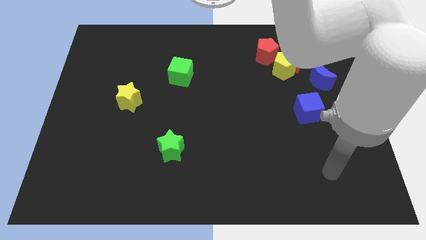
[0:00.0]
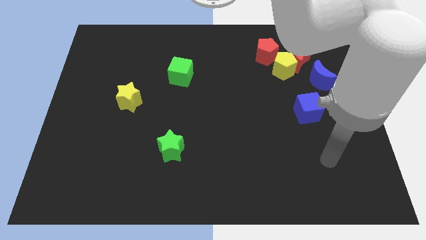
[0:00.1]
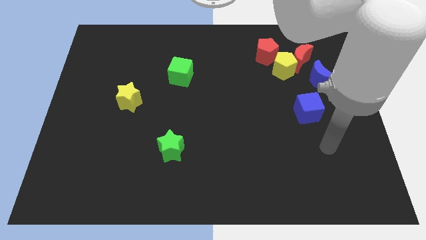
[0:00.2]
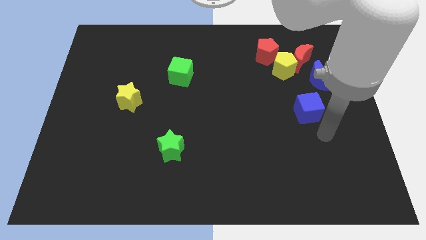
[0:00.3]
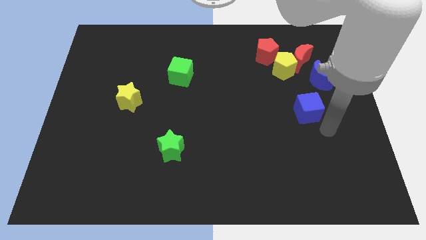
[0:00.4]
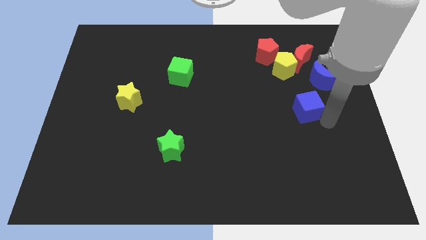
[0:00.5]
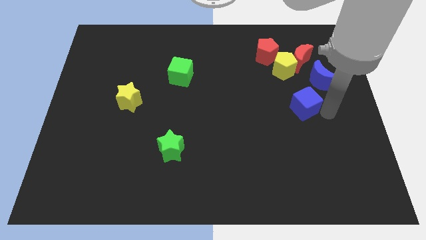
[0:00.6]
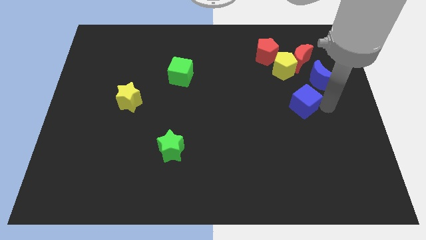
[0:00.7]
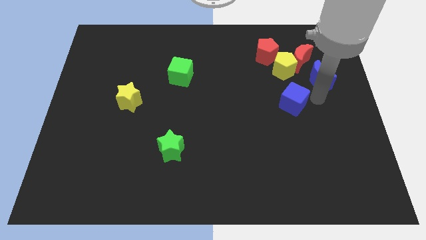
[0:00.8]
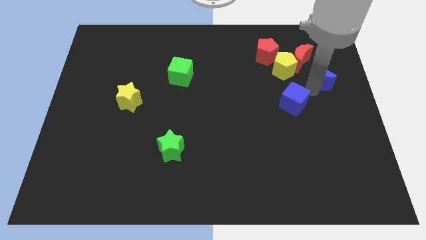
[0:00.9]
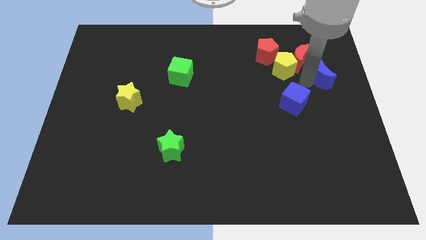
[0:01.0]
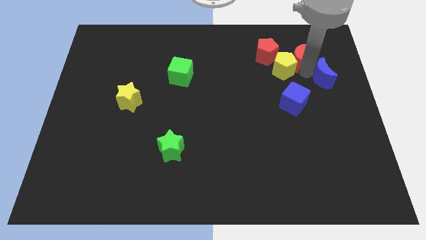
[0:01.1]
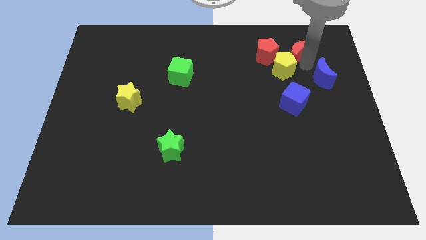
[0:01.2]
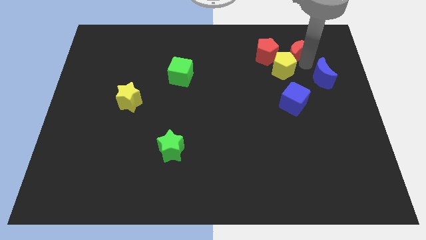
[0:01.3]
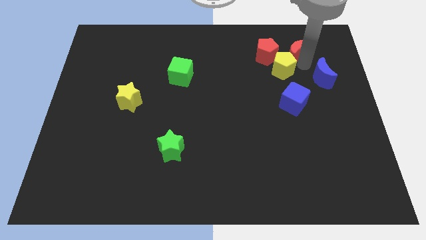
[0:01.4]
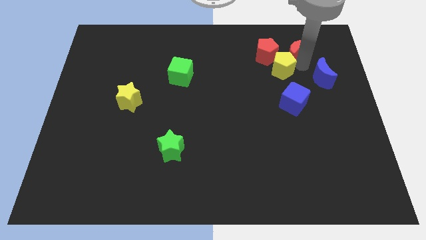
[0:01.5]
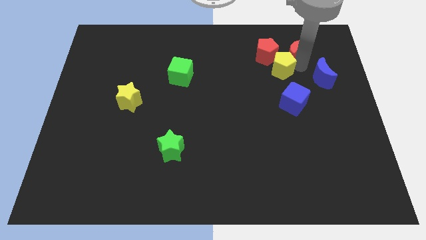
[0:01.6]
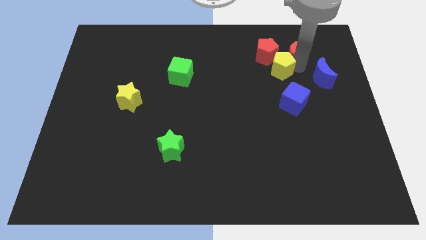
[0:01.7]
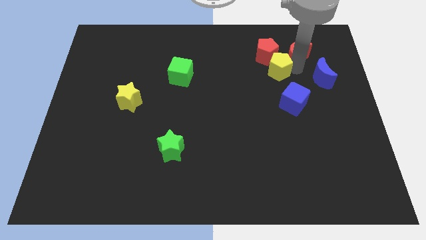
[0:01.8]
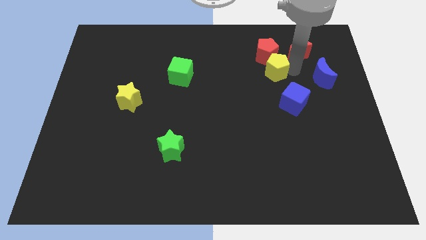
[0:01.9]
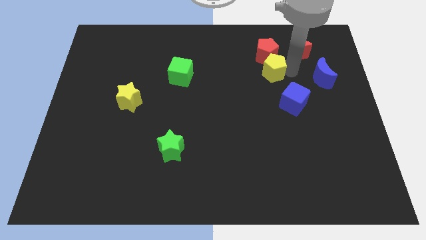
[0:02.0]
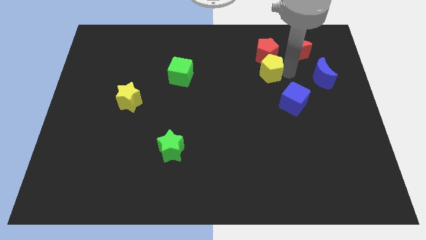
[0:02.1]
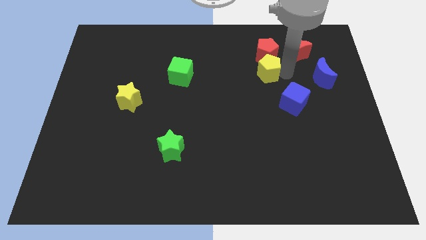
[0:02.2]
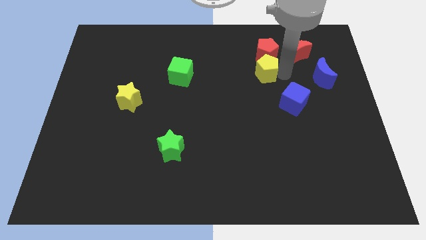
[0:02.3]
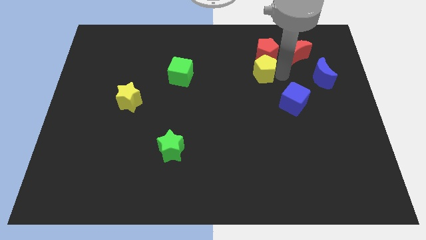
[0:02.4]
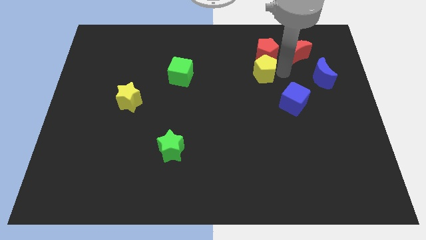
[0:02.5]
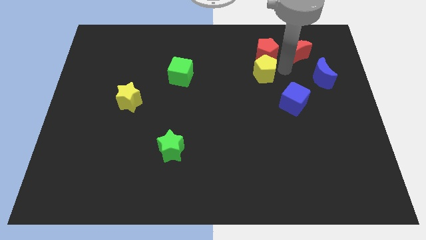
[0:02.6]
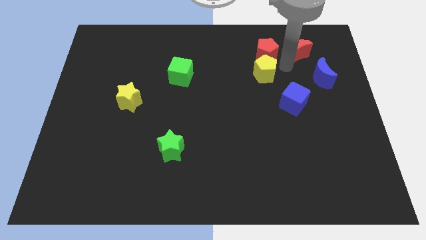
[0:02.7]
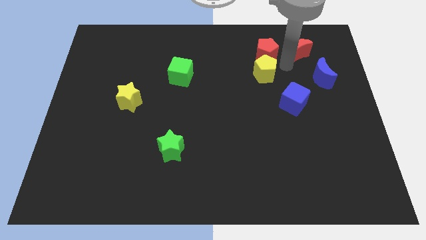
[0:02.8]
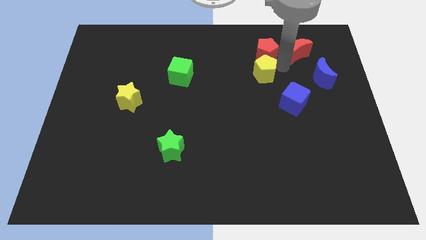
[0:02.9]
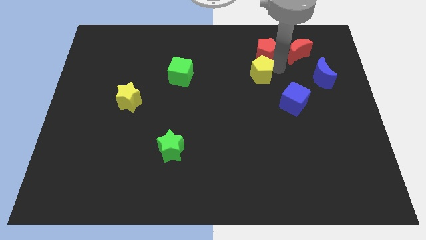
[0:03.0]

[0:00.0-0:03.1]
move the yellow pentagon away from the red moon, red pentagon, and blue moon

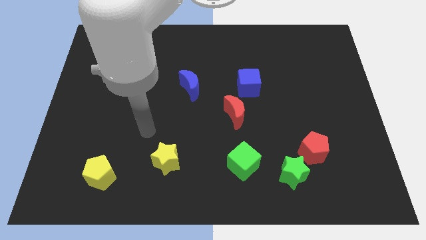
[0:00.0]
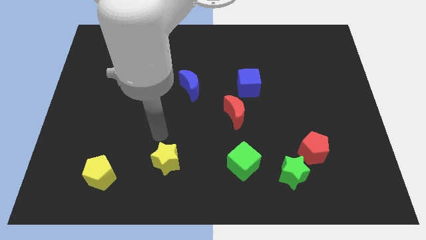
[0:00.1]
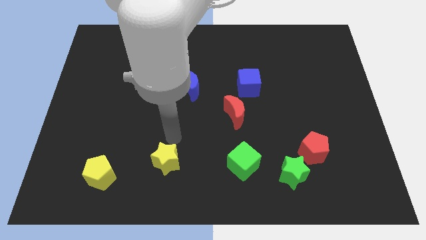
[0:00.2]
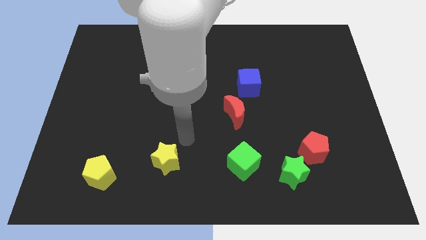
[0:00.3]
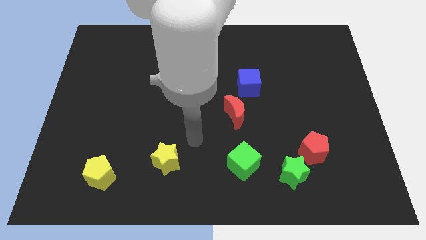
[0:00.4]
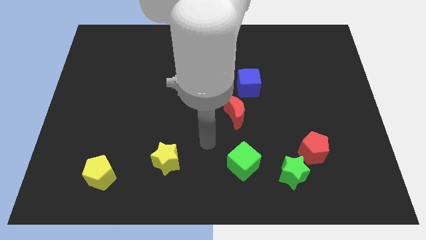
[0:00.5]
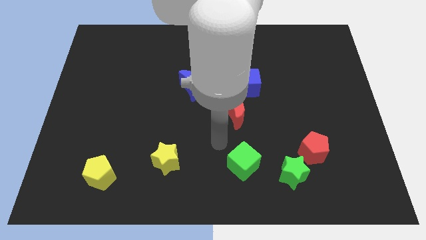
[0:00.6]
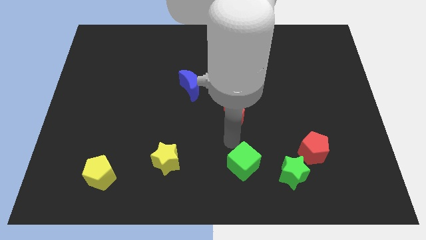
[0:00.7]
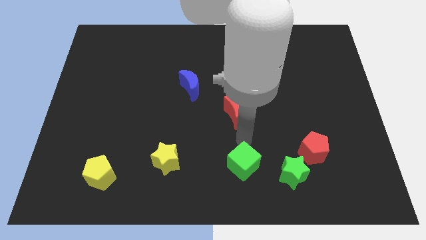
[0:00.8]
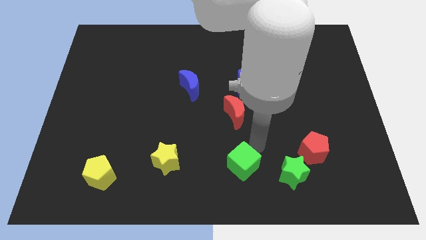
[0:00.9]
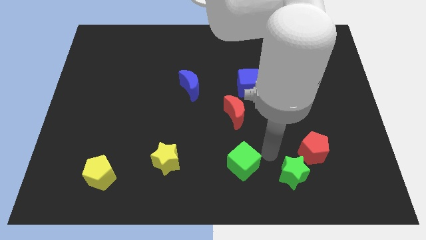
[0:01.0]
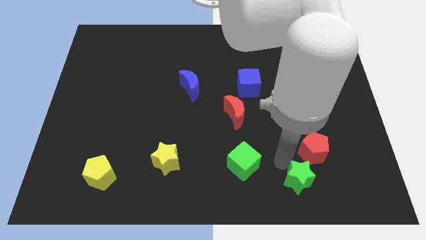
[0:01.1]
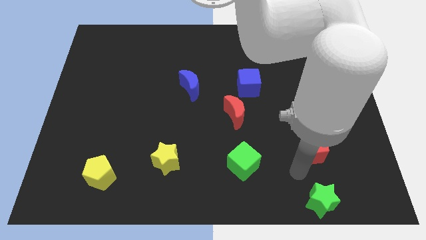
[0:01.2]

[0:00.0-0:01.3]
separate the red pentagon from the green star

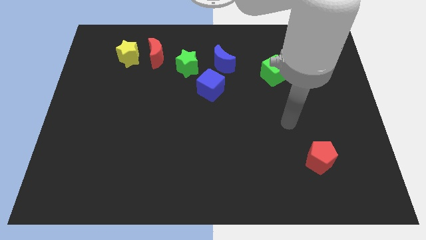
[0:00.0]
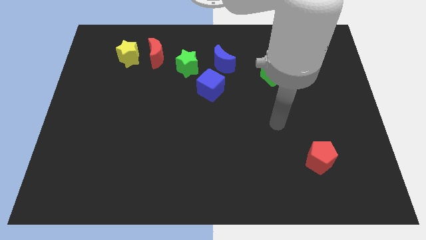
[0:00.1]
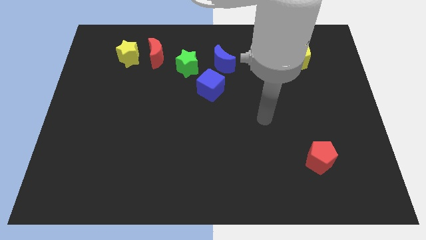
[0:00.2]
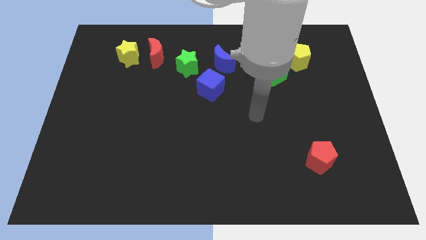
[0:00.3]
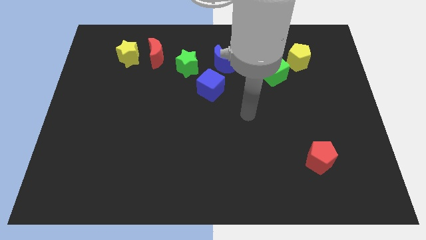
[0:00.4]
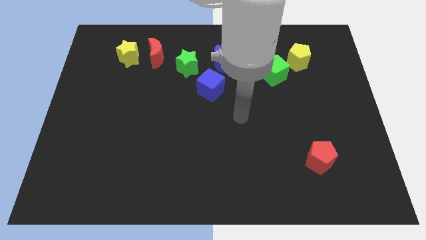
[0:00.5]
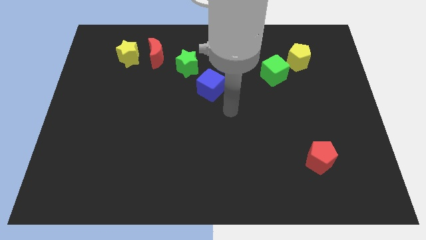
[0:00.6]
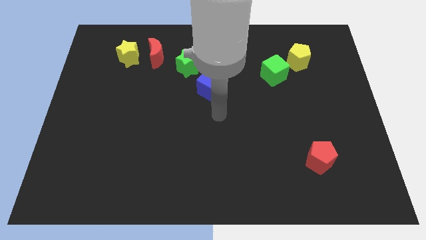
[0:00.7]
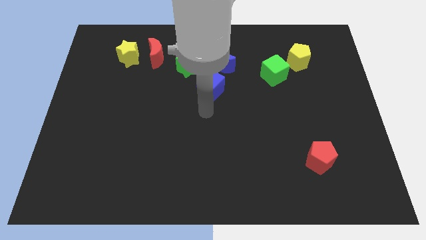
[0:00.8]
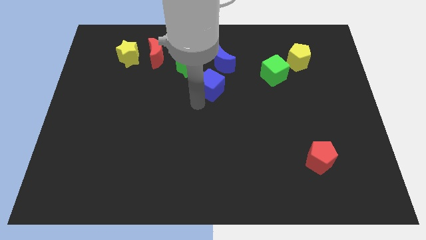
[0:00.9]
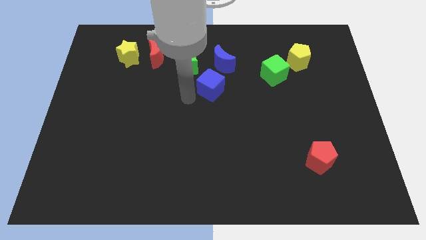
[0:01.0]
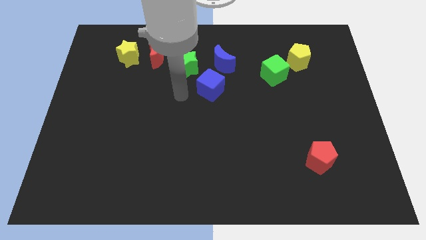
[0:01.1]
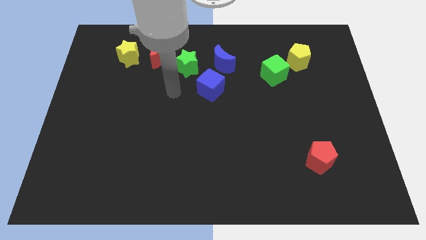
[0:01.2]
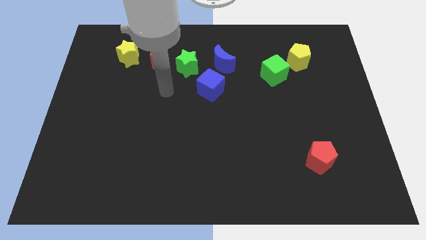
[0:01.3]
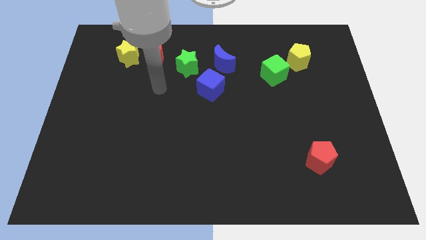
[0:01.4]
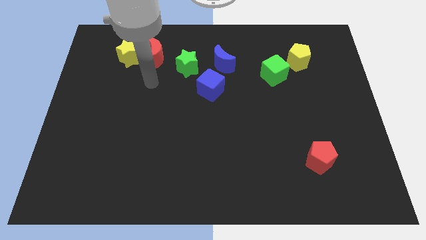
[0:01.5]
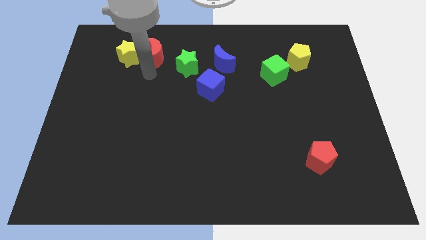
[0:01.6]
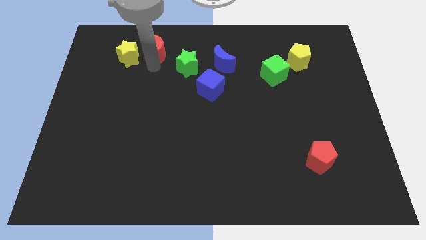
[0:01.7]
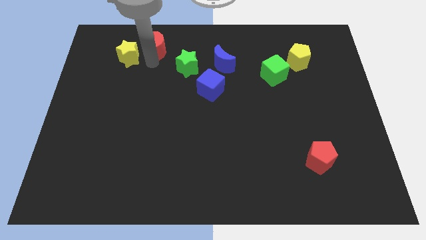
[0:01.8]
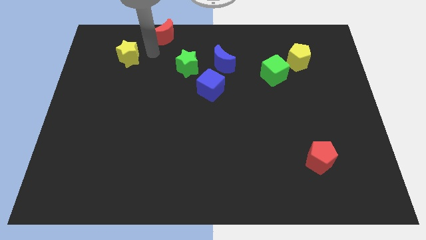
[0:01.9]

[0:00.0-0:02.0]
pull the yellow star apart from the red moon

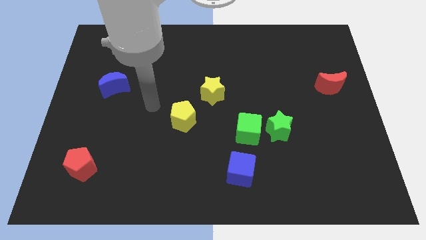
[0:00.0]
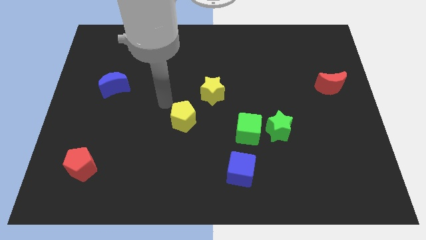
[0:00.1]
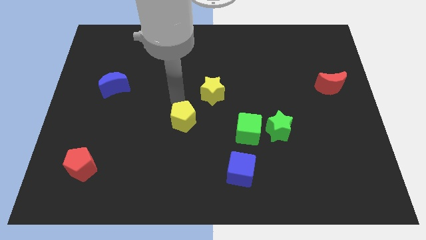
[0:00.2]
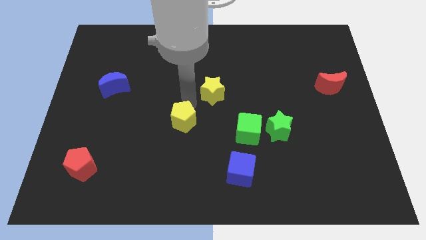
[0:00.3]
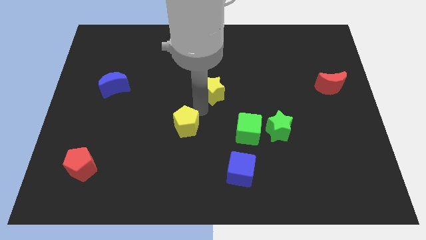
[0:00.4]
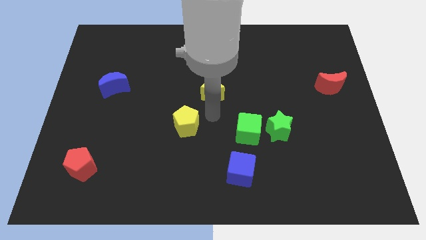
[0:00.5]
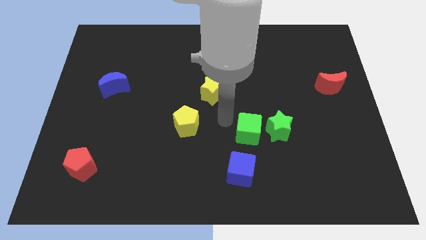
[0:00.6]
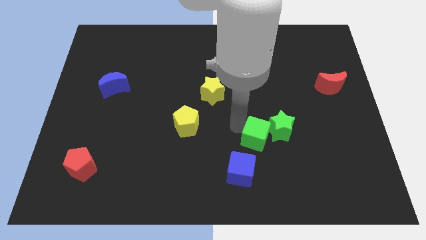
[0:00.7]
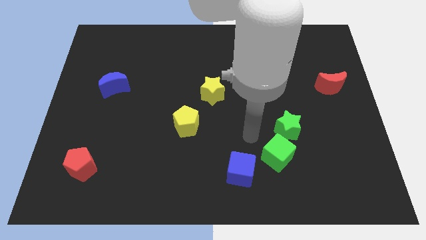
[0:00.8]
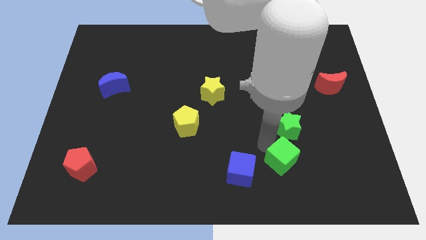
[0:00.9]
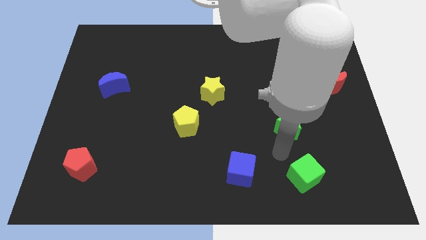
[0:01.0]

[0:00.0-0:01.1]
move the green star away from the green cube

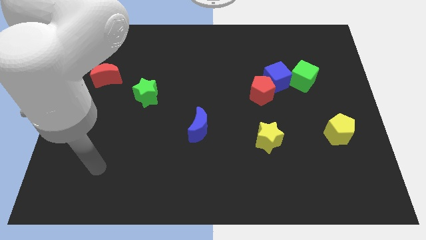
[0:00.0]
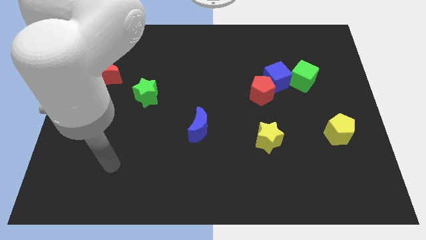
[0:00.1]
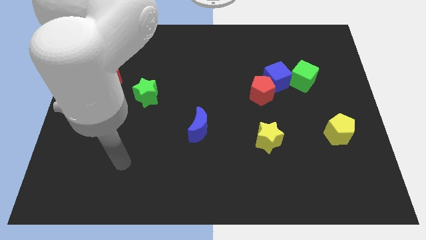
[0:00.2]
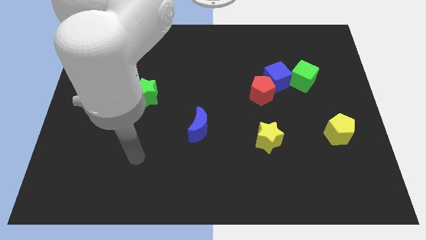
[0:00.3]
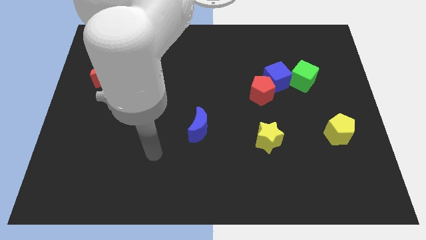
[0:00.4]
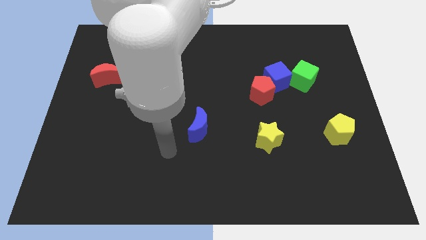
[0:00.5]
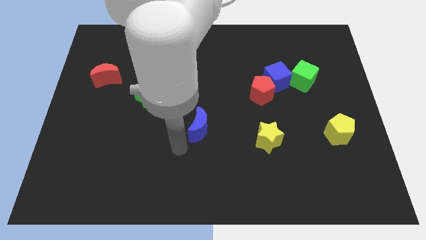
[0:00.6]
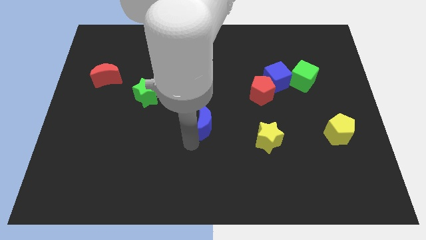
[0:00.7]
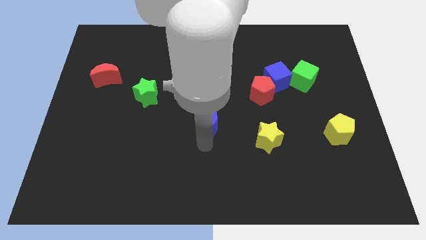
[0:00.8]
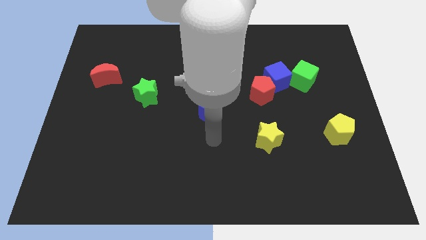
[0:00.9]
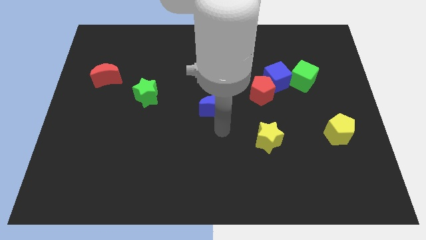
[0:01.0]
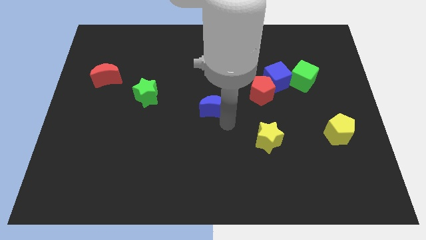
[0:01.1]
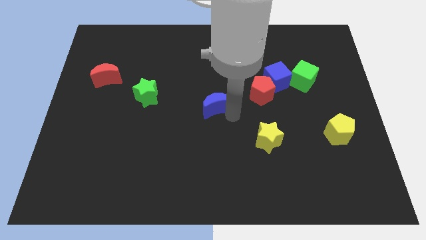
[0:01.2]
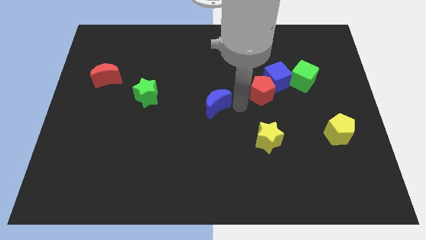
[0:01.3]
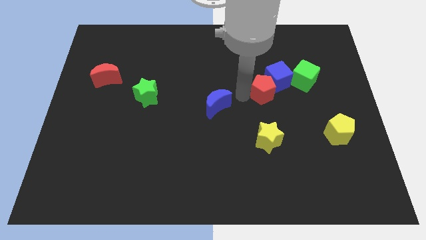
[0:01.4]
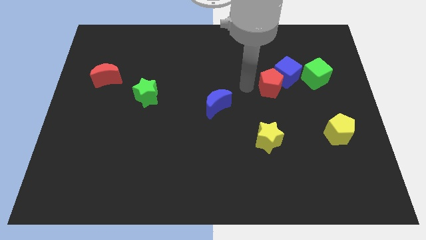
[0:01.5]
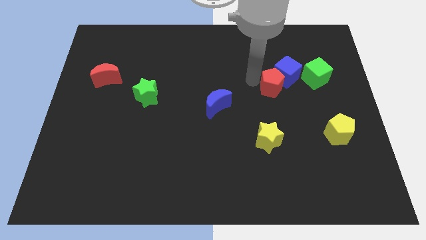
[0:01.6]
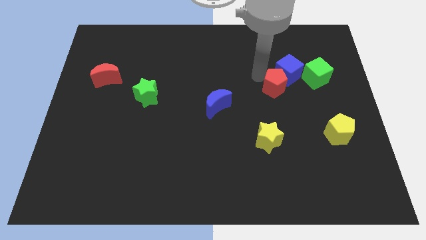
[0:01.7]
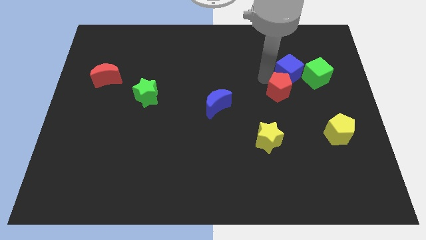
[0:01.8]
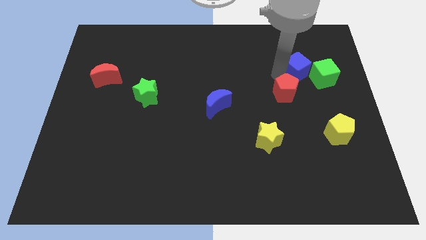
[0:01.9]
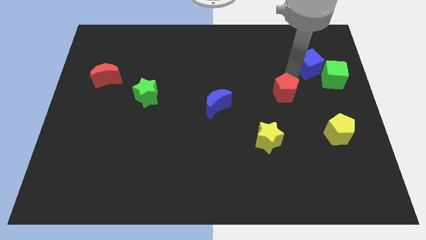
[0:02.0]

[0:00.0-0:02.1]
separate the red pentagon from the blue cube
